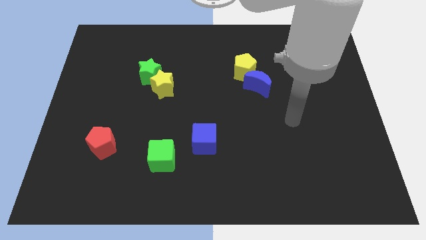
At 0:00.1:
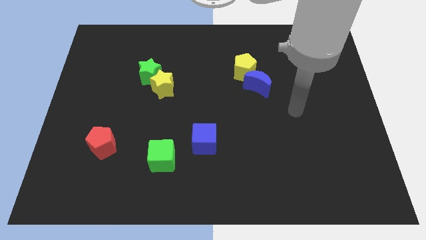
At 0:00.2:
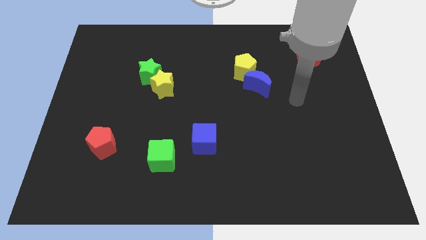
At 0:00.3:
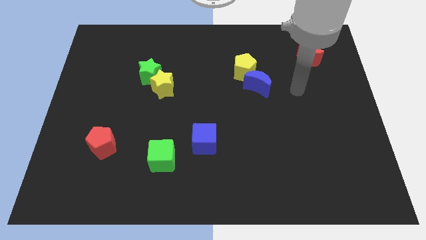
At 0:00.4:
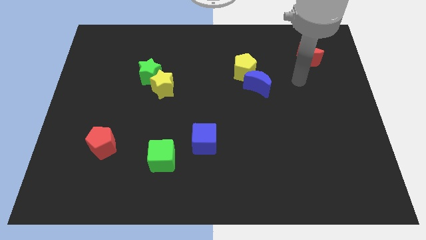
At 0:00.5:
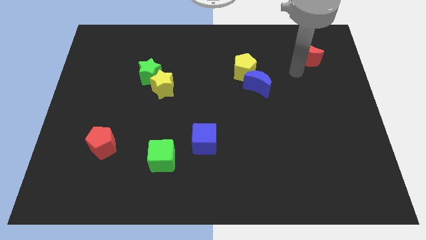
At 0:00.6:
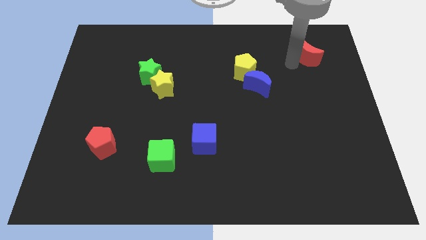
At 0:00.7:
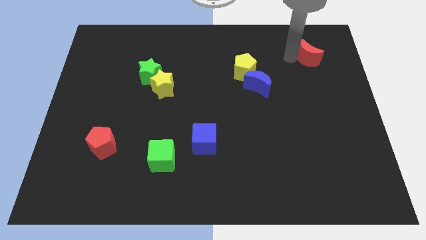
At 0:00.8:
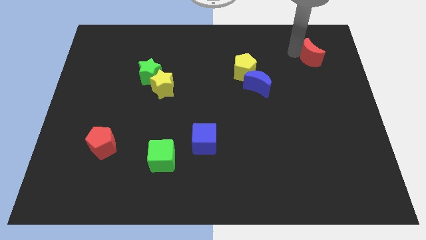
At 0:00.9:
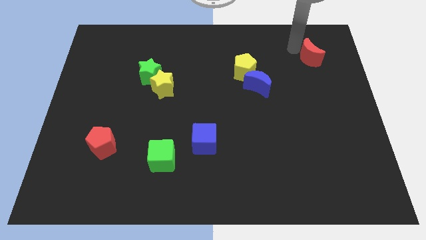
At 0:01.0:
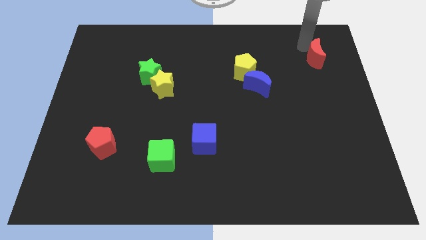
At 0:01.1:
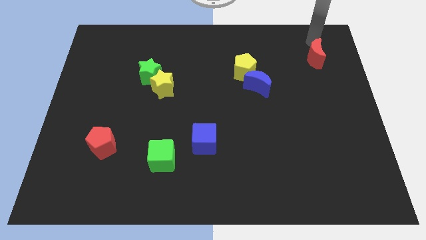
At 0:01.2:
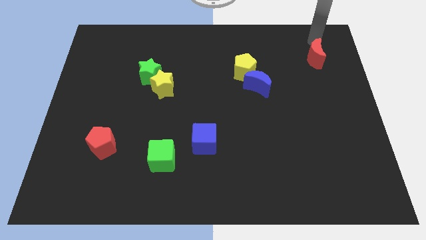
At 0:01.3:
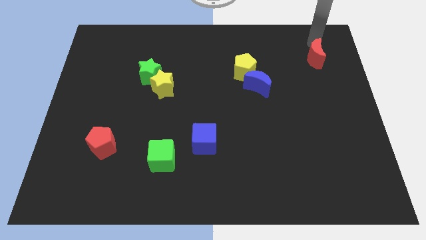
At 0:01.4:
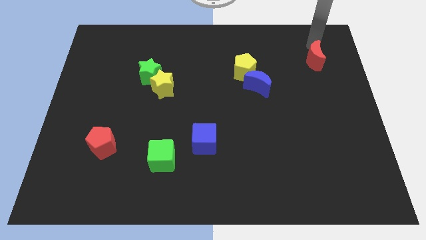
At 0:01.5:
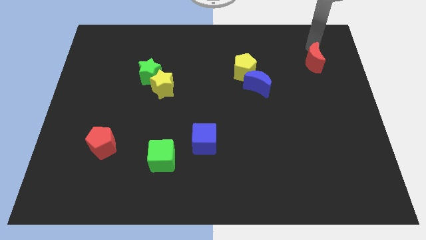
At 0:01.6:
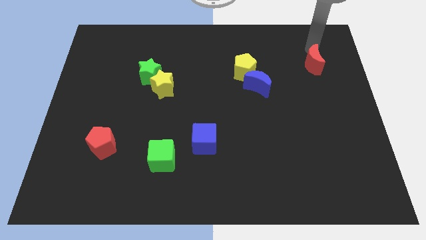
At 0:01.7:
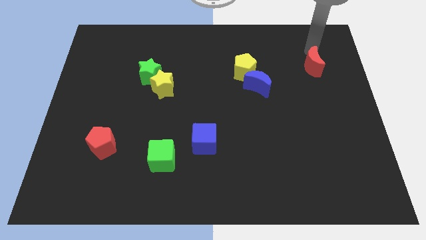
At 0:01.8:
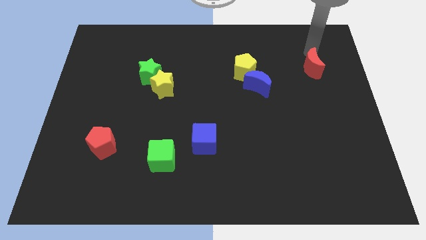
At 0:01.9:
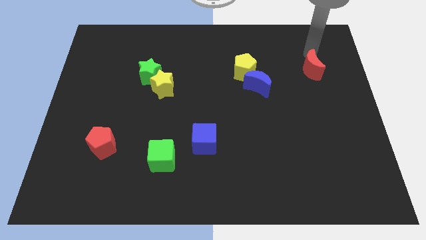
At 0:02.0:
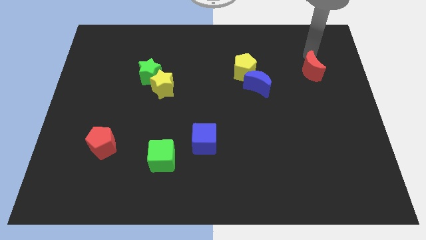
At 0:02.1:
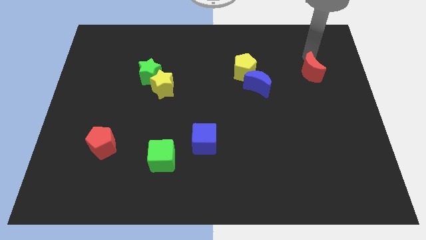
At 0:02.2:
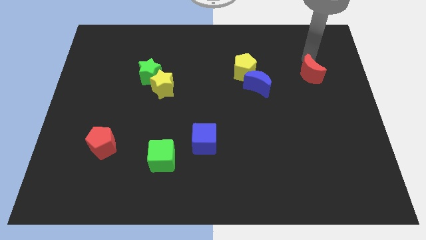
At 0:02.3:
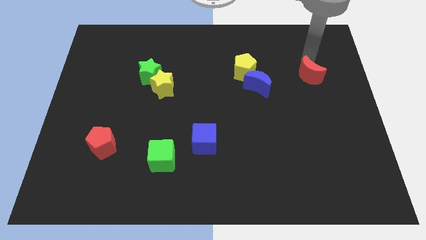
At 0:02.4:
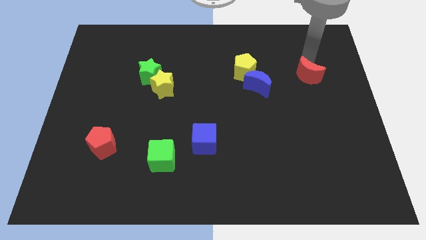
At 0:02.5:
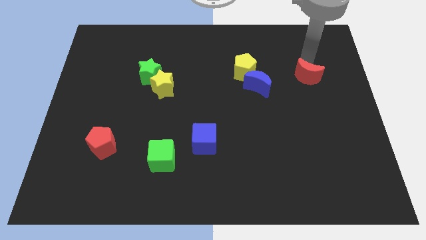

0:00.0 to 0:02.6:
slide the red moon downwards somewhat

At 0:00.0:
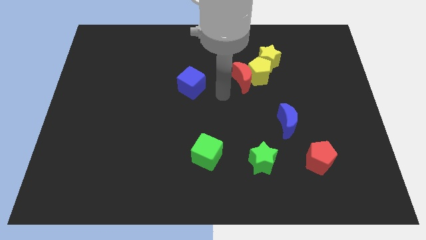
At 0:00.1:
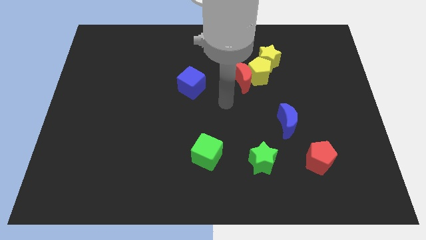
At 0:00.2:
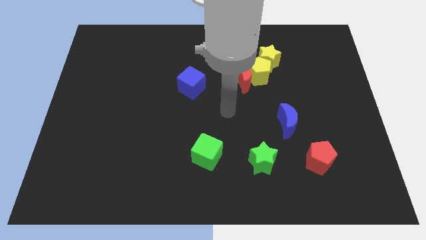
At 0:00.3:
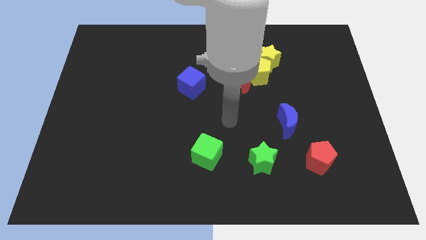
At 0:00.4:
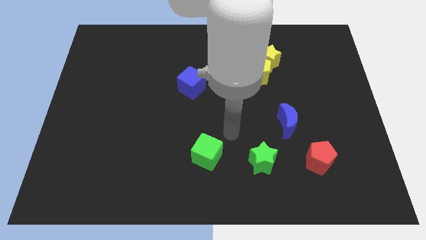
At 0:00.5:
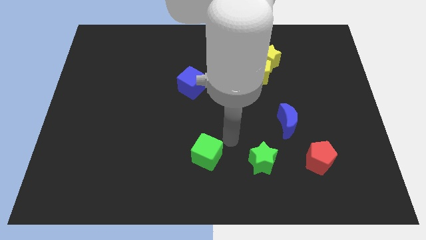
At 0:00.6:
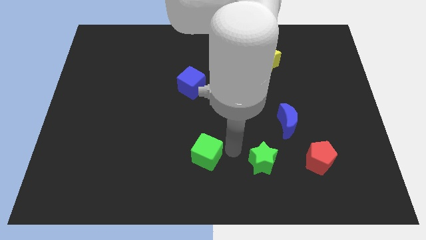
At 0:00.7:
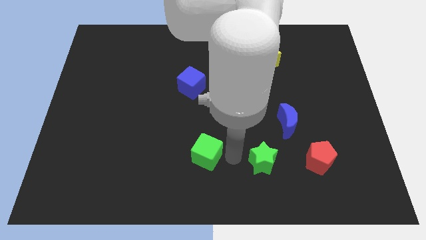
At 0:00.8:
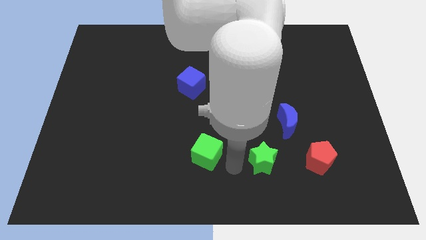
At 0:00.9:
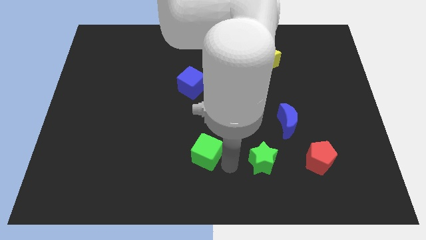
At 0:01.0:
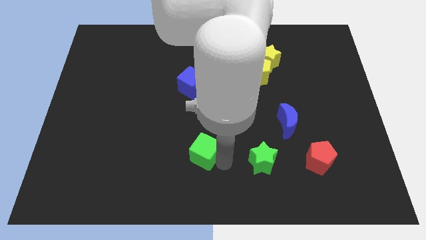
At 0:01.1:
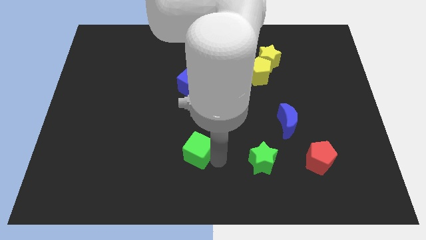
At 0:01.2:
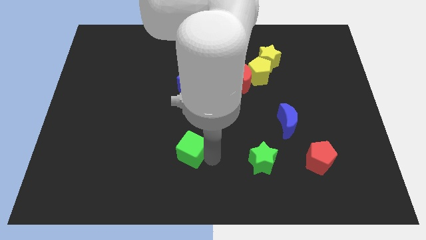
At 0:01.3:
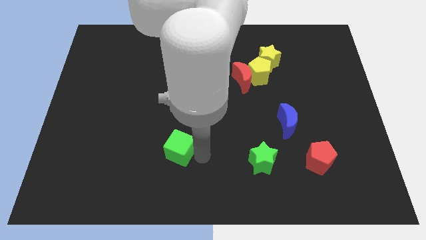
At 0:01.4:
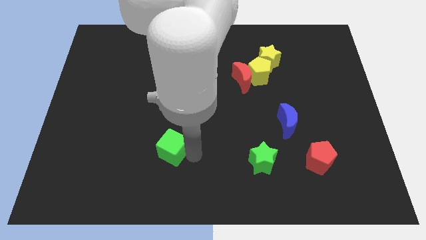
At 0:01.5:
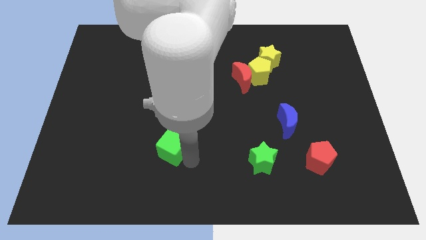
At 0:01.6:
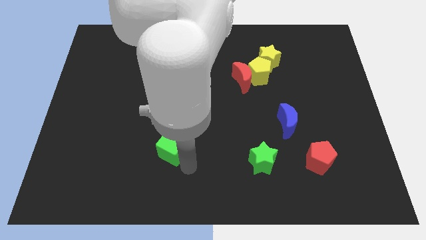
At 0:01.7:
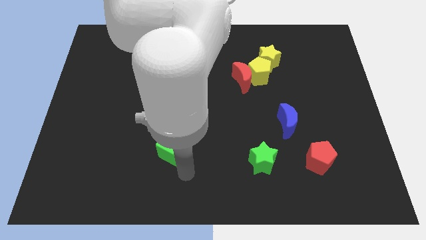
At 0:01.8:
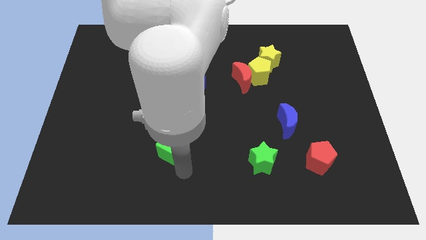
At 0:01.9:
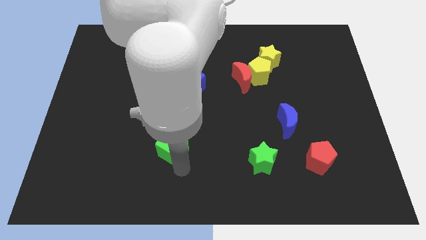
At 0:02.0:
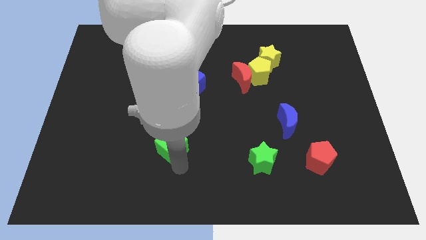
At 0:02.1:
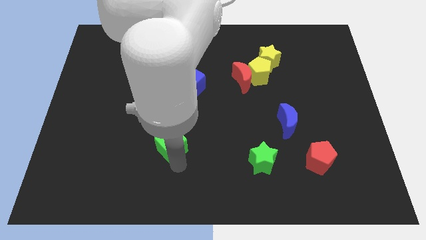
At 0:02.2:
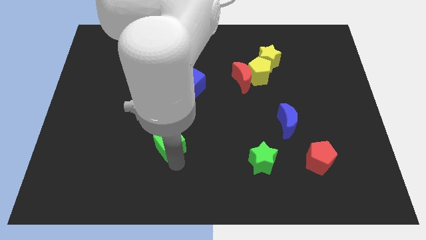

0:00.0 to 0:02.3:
move the green cube a bit up and then to the left

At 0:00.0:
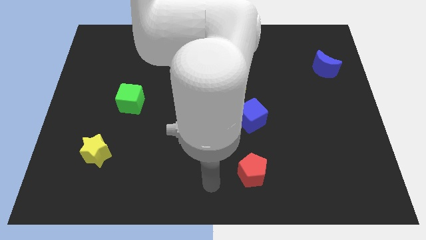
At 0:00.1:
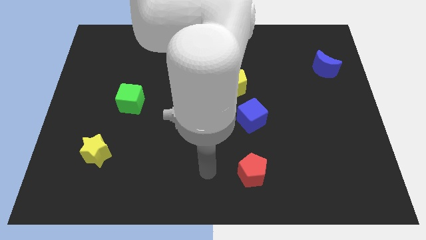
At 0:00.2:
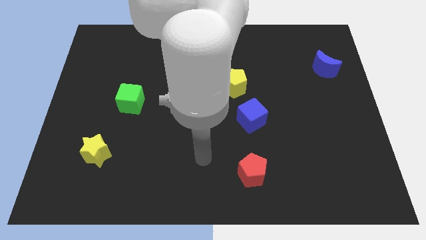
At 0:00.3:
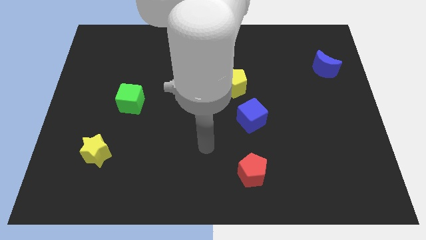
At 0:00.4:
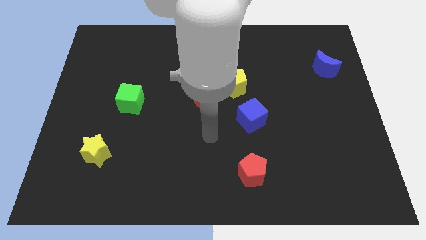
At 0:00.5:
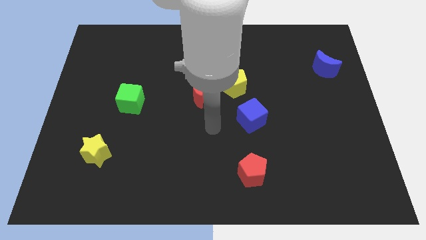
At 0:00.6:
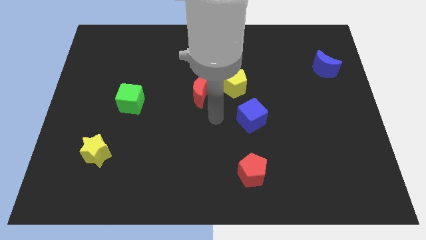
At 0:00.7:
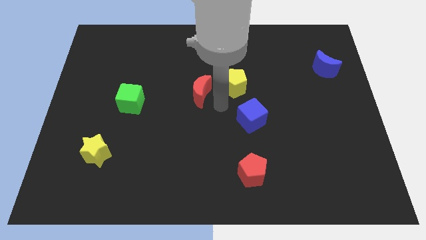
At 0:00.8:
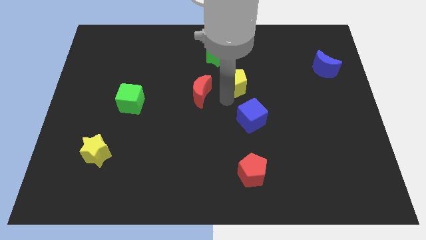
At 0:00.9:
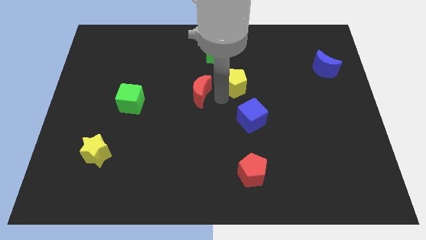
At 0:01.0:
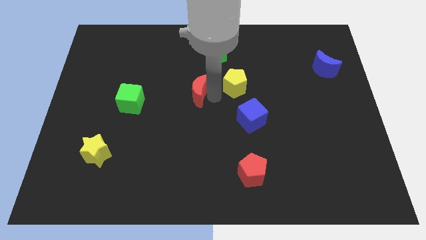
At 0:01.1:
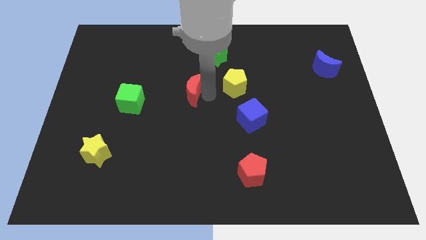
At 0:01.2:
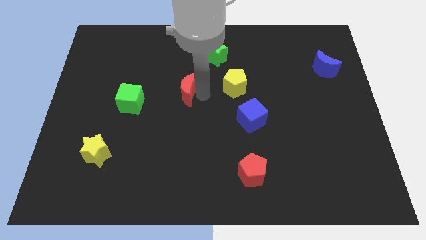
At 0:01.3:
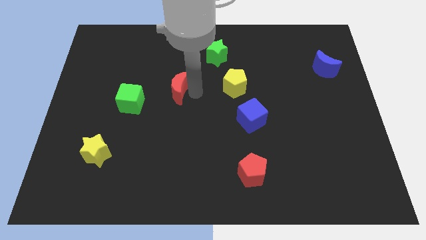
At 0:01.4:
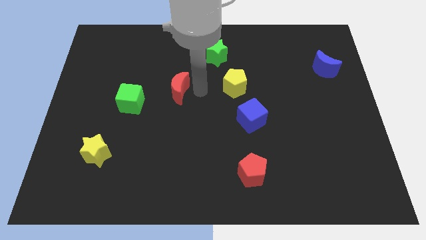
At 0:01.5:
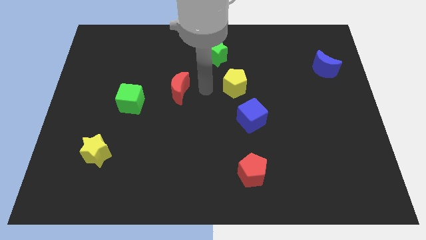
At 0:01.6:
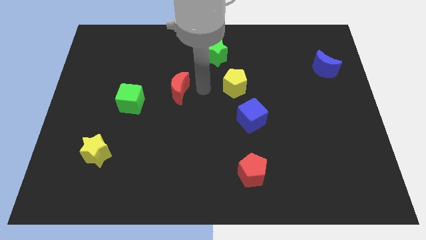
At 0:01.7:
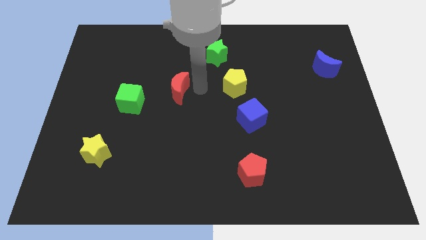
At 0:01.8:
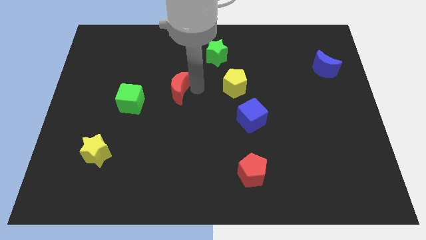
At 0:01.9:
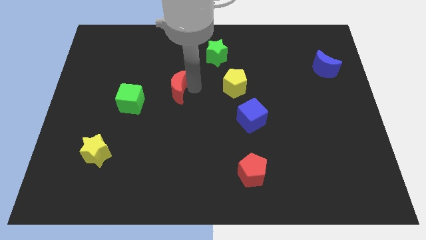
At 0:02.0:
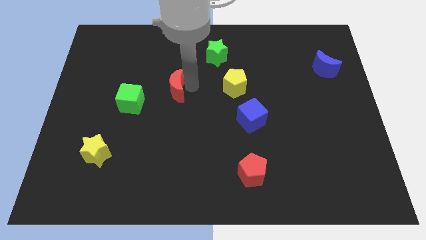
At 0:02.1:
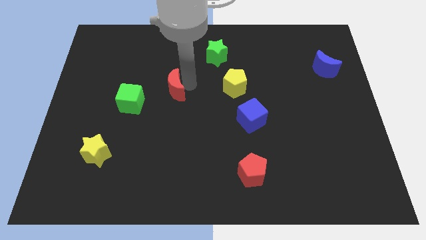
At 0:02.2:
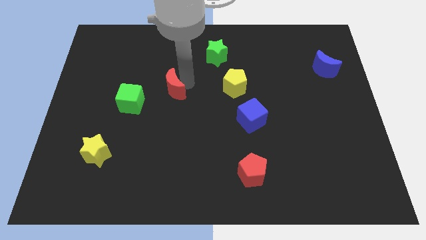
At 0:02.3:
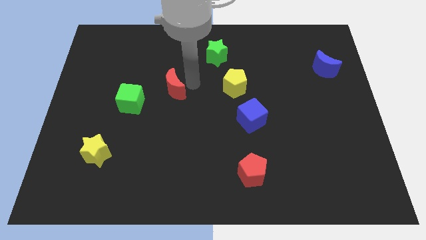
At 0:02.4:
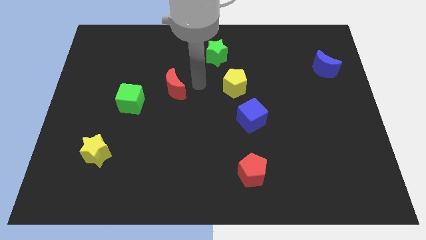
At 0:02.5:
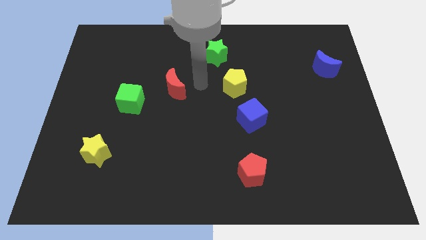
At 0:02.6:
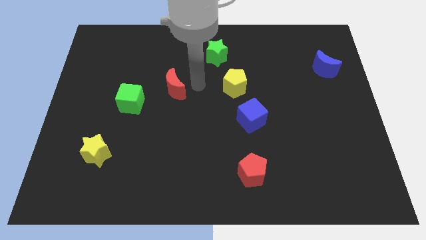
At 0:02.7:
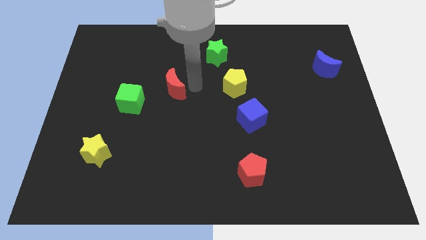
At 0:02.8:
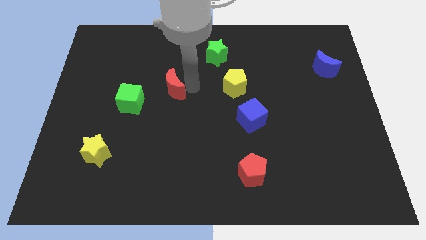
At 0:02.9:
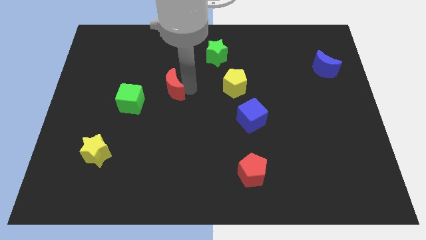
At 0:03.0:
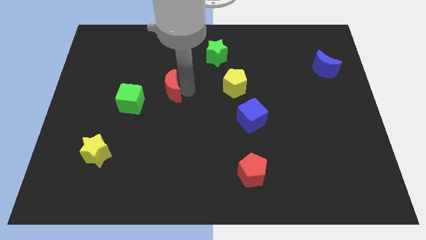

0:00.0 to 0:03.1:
slide the red moon somewhat to the left

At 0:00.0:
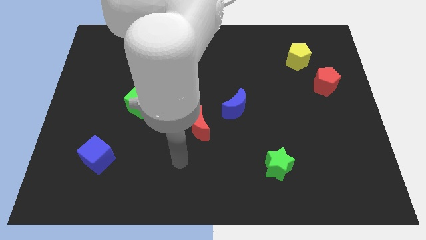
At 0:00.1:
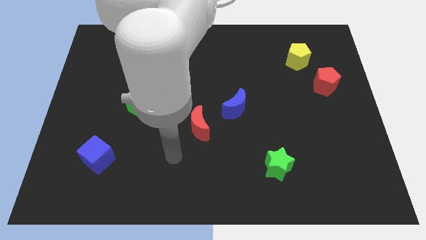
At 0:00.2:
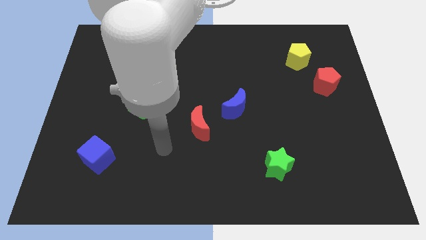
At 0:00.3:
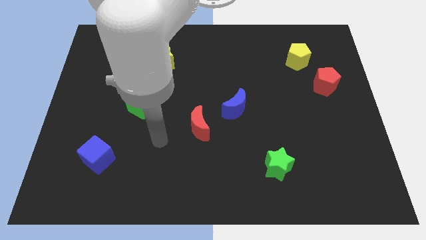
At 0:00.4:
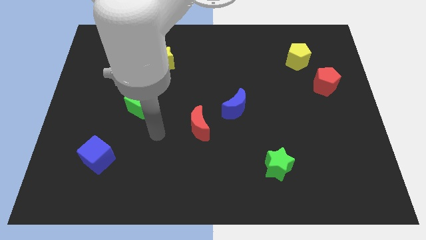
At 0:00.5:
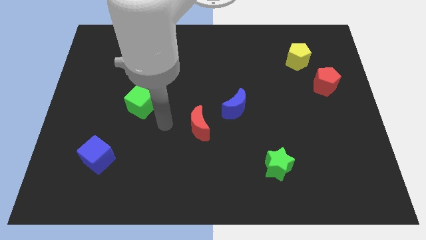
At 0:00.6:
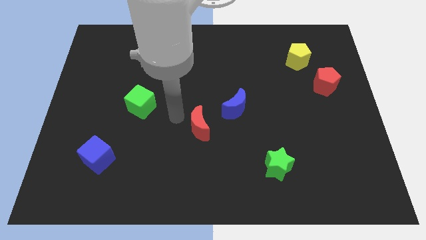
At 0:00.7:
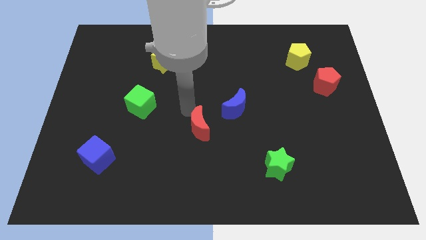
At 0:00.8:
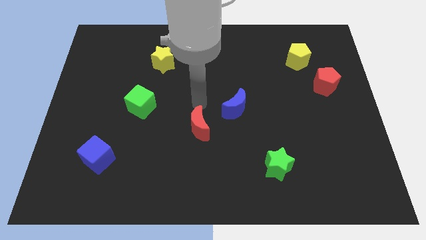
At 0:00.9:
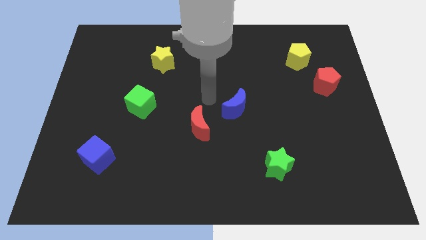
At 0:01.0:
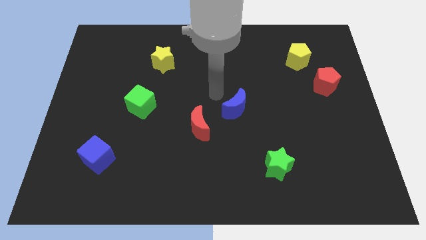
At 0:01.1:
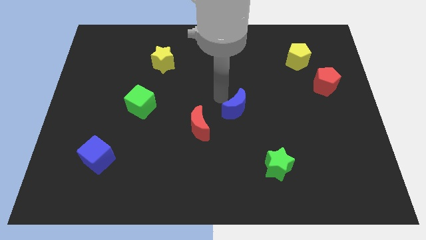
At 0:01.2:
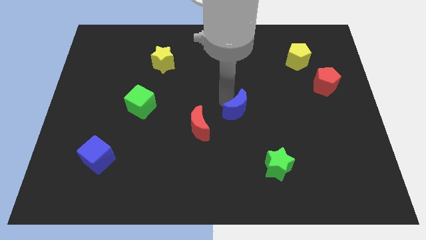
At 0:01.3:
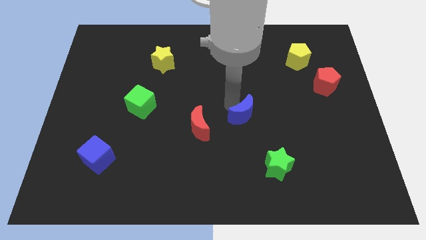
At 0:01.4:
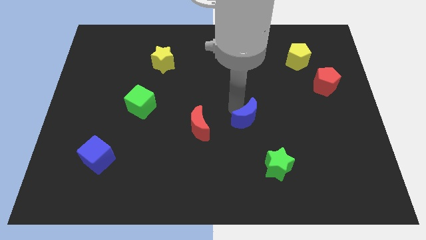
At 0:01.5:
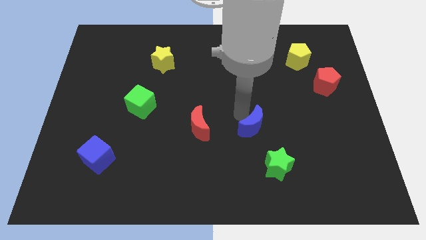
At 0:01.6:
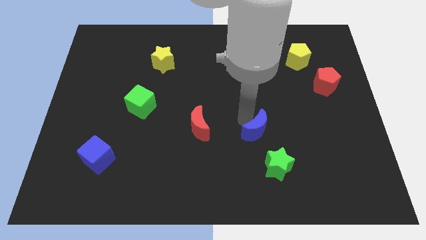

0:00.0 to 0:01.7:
slightly push the blue moon downwards and then right
